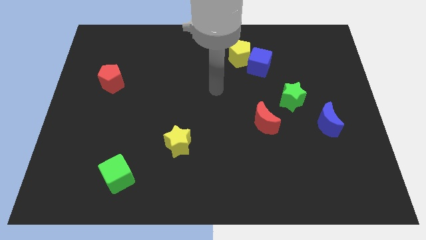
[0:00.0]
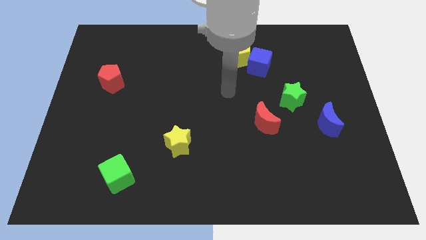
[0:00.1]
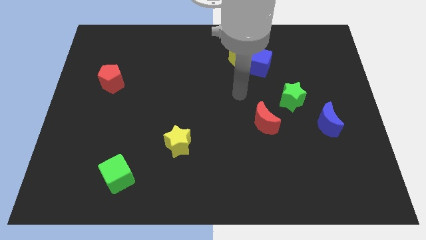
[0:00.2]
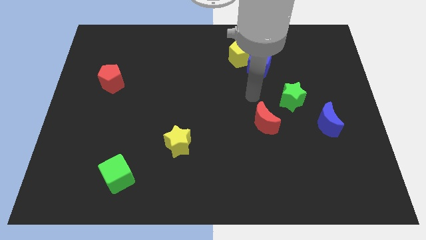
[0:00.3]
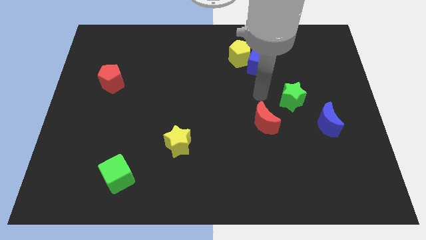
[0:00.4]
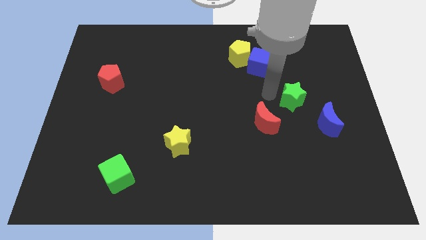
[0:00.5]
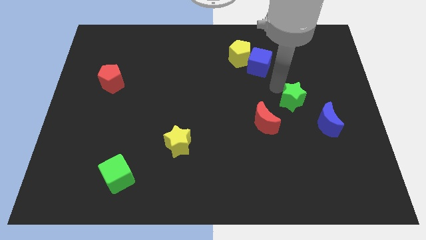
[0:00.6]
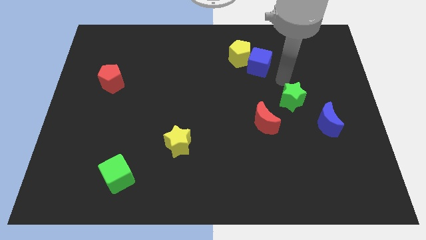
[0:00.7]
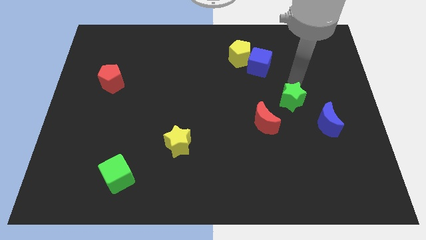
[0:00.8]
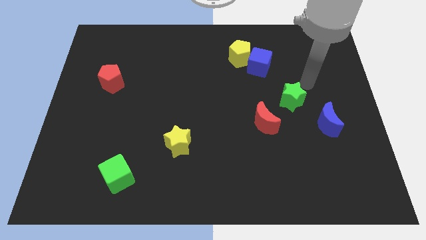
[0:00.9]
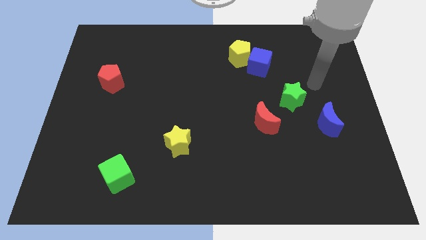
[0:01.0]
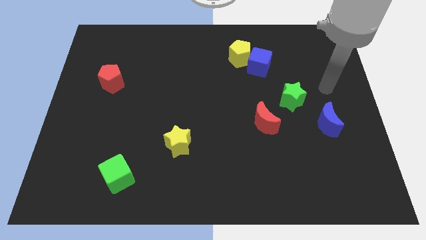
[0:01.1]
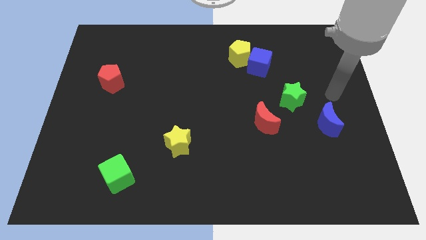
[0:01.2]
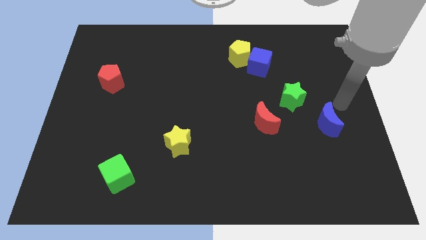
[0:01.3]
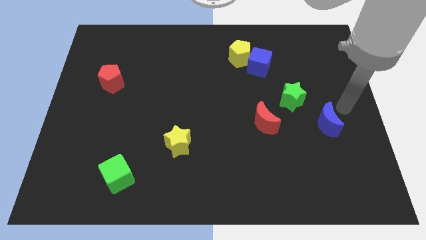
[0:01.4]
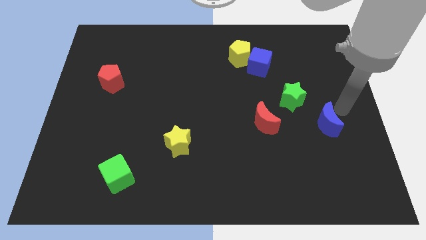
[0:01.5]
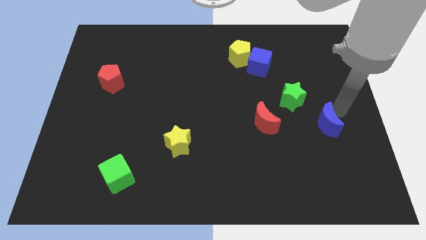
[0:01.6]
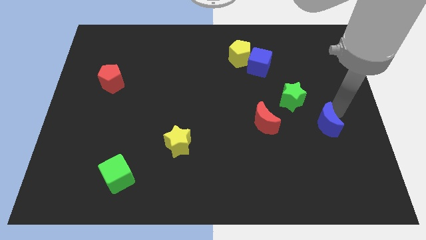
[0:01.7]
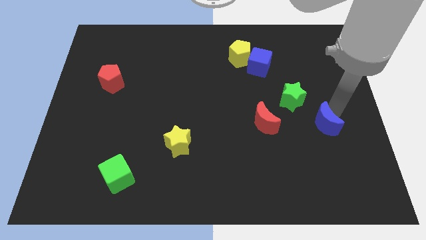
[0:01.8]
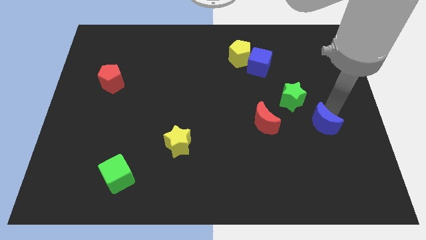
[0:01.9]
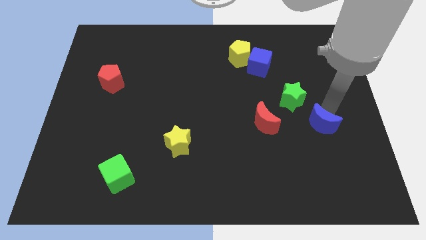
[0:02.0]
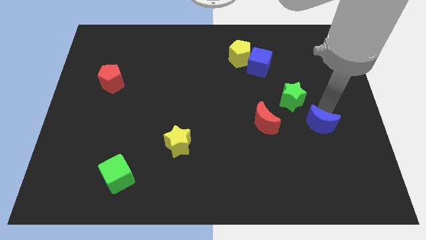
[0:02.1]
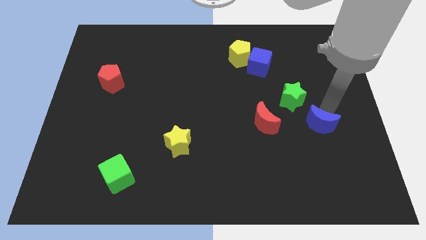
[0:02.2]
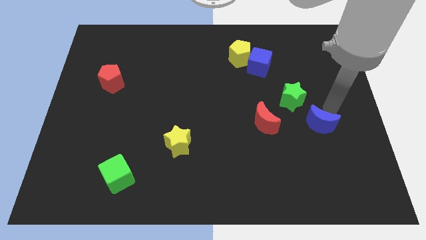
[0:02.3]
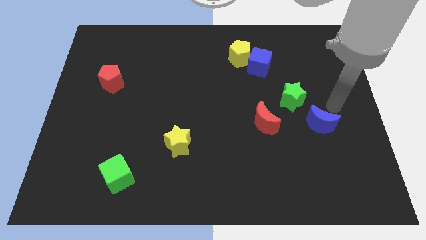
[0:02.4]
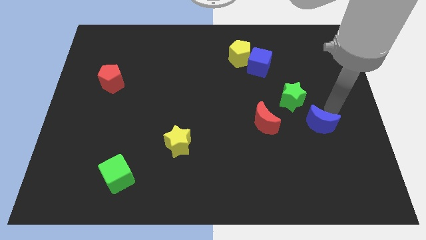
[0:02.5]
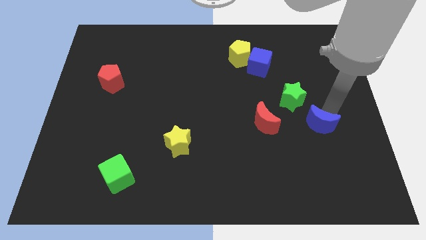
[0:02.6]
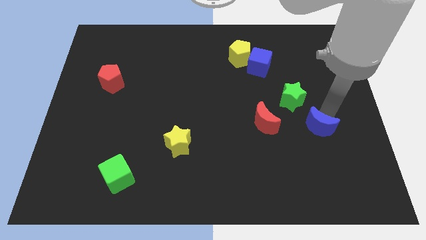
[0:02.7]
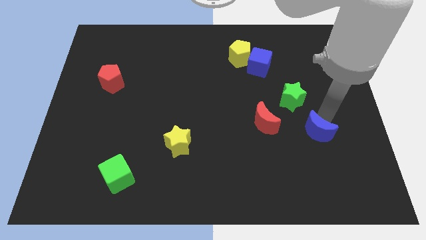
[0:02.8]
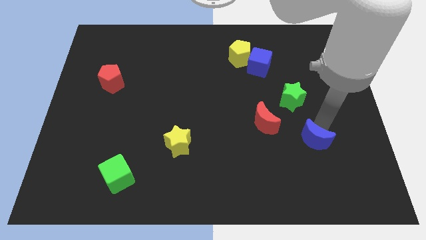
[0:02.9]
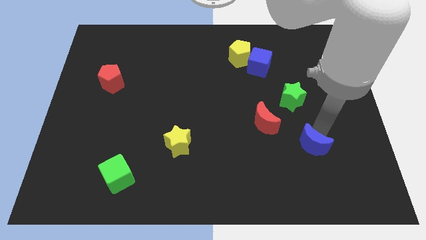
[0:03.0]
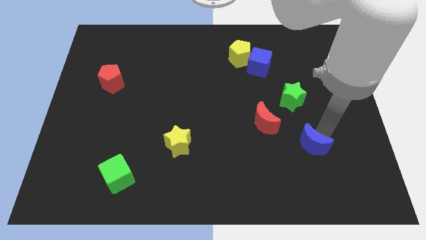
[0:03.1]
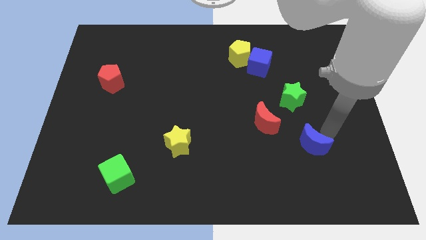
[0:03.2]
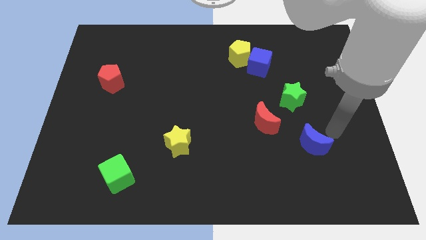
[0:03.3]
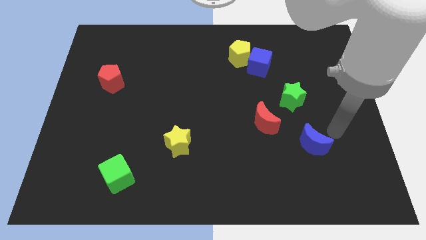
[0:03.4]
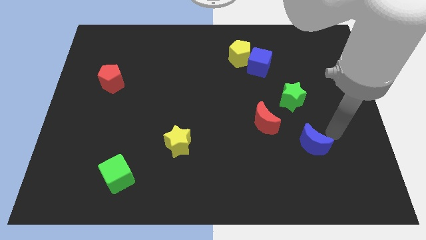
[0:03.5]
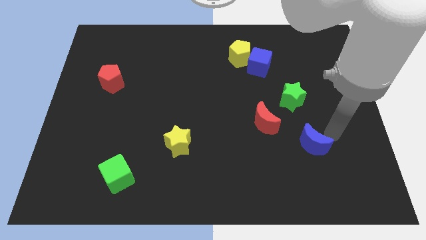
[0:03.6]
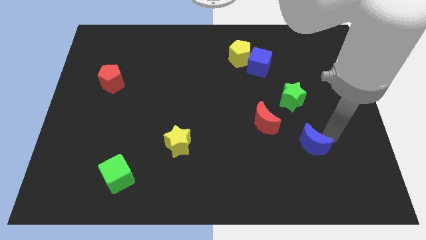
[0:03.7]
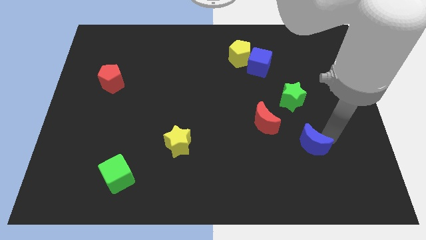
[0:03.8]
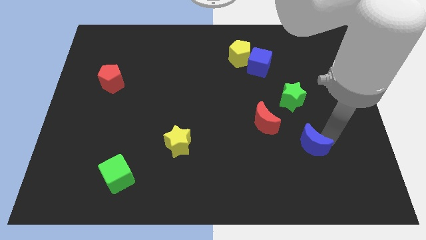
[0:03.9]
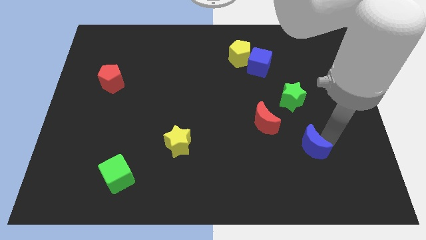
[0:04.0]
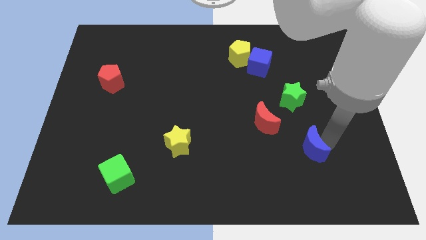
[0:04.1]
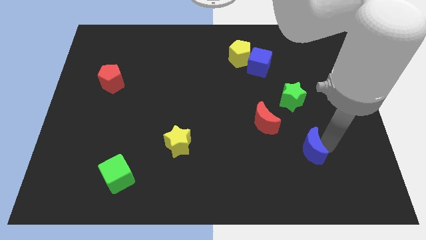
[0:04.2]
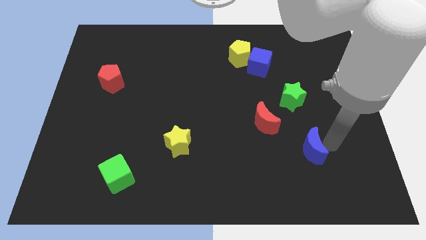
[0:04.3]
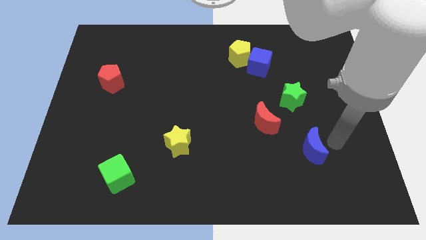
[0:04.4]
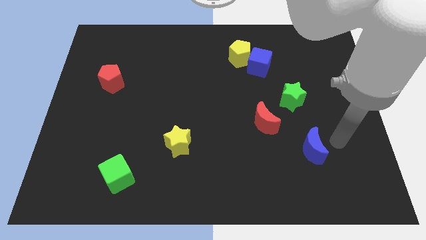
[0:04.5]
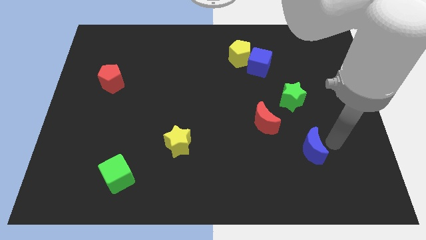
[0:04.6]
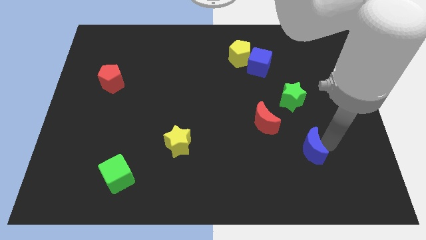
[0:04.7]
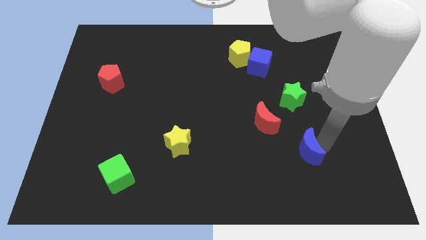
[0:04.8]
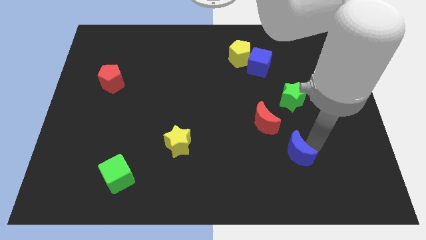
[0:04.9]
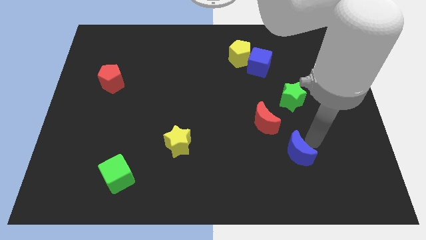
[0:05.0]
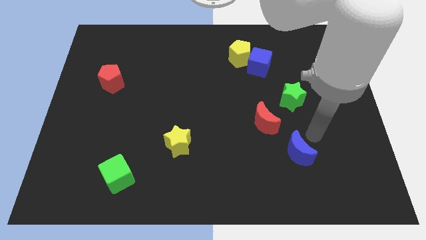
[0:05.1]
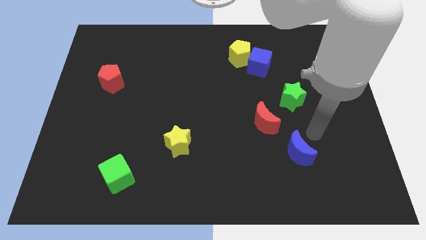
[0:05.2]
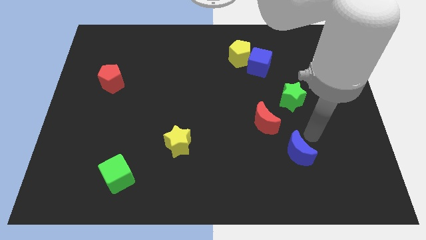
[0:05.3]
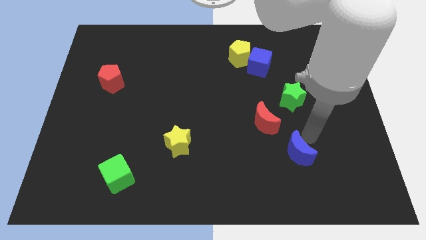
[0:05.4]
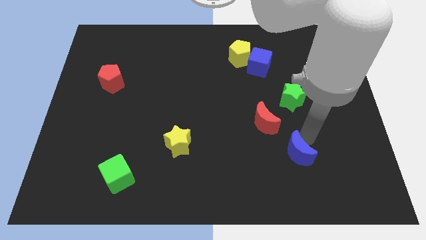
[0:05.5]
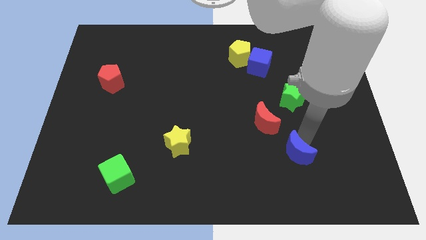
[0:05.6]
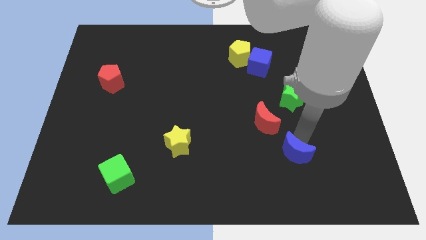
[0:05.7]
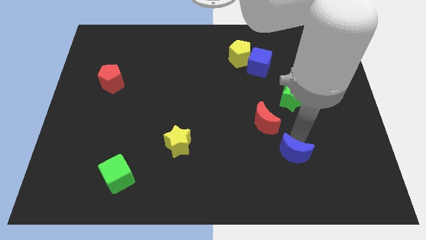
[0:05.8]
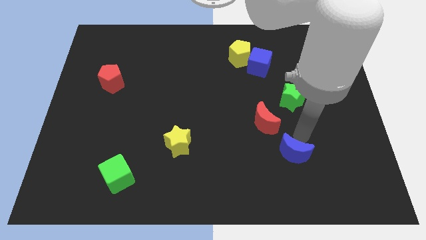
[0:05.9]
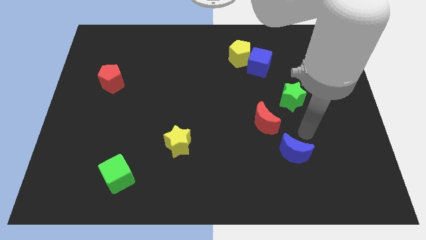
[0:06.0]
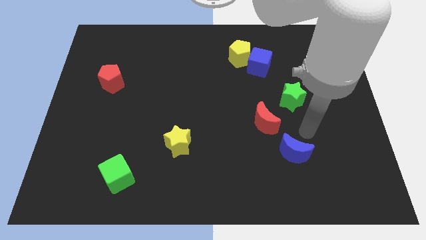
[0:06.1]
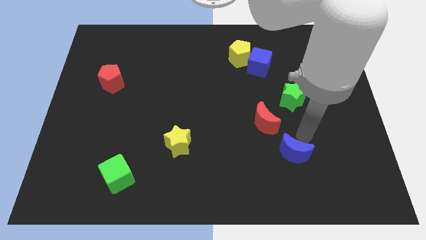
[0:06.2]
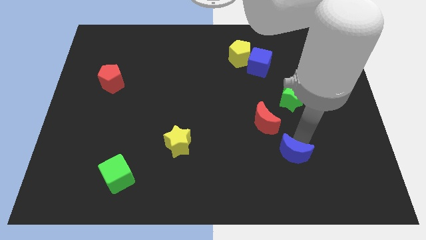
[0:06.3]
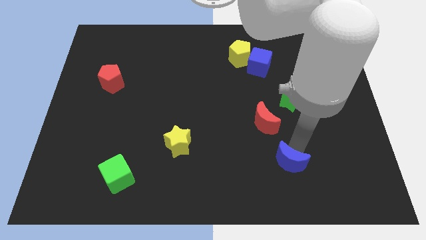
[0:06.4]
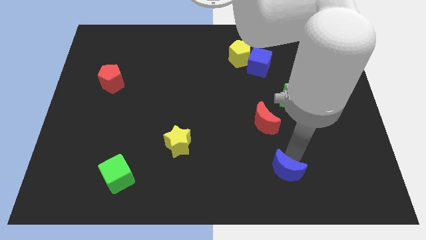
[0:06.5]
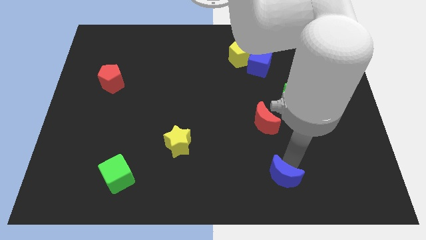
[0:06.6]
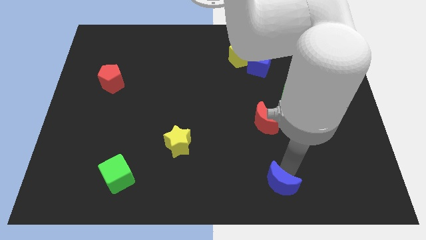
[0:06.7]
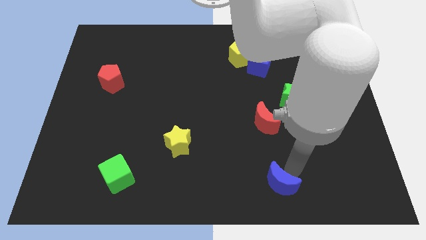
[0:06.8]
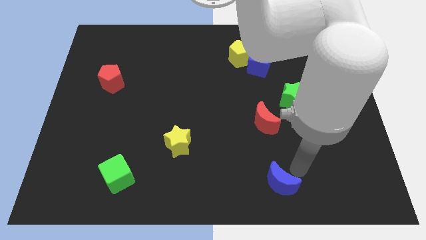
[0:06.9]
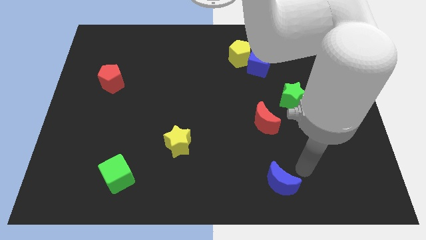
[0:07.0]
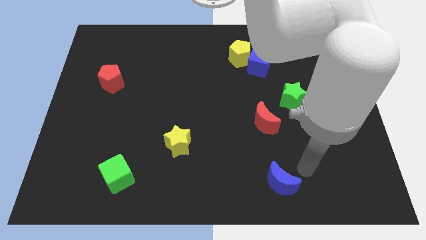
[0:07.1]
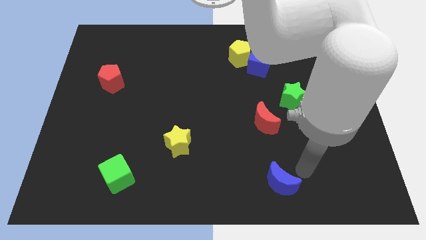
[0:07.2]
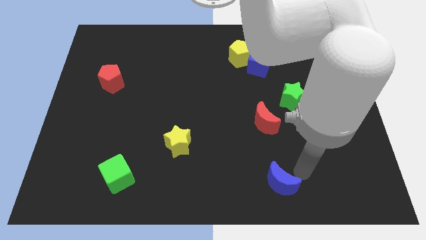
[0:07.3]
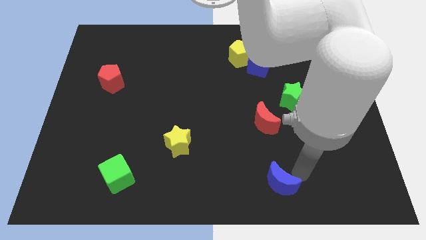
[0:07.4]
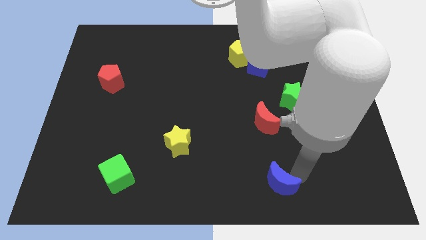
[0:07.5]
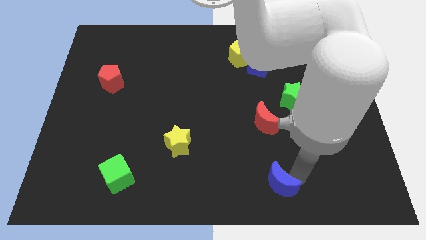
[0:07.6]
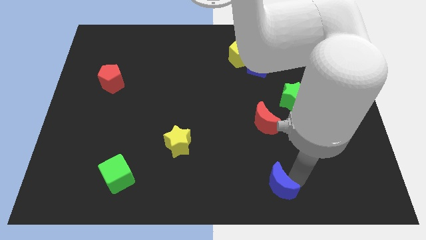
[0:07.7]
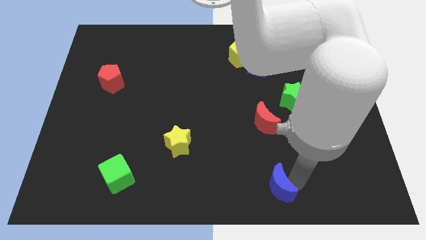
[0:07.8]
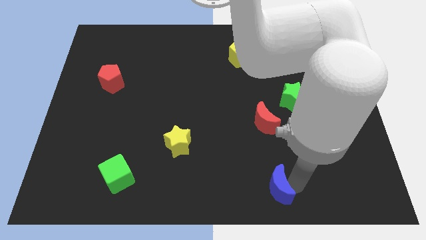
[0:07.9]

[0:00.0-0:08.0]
push the blue moon to the bottom side
